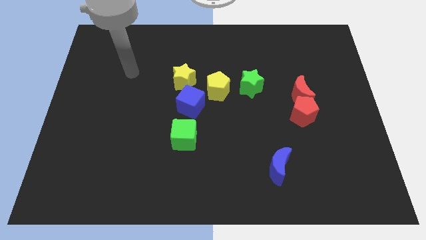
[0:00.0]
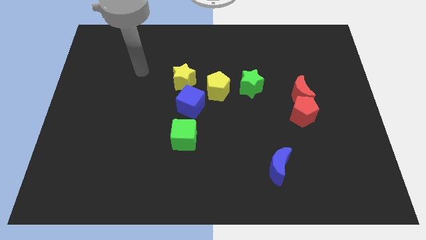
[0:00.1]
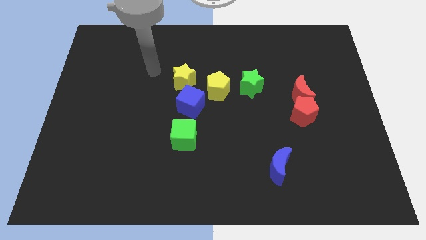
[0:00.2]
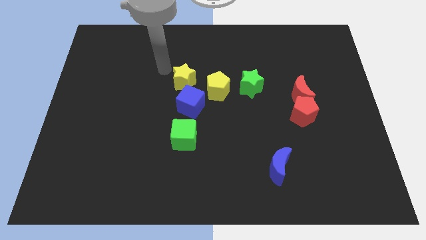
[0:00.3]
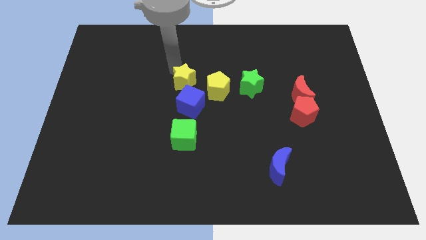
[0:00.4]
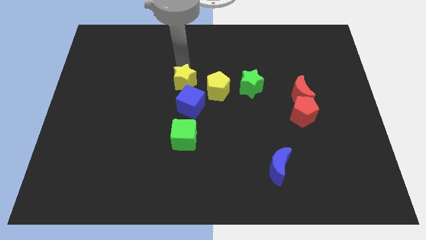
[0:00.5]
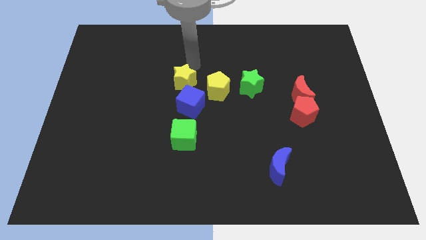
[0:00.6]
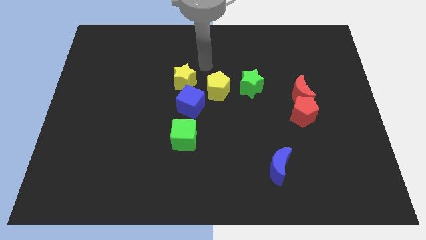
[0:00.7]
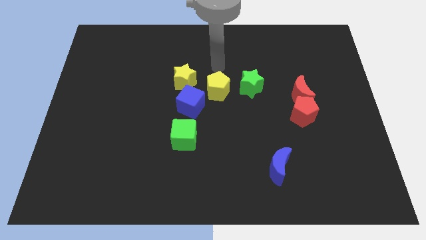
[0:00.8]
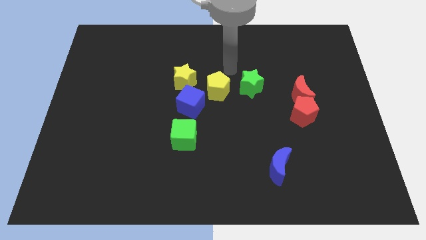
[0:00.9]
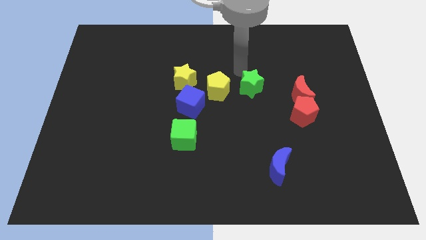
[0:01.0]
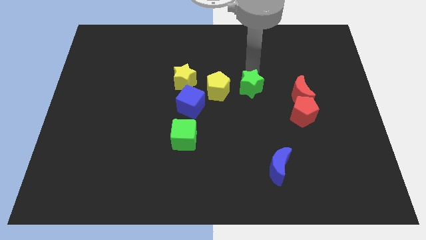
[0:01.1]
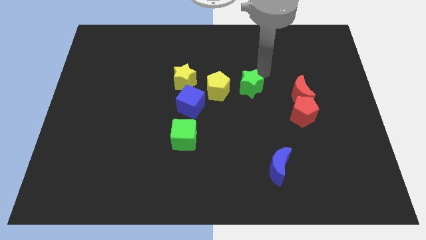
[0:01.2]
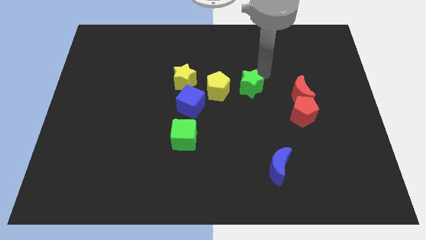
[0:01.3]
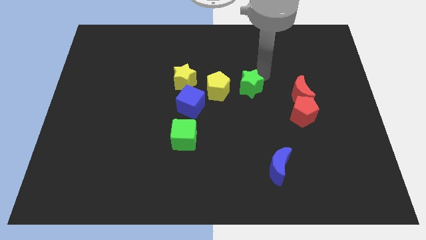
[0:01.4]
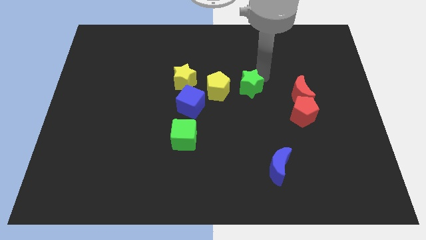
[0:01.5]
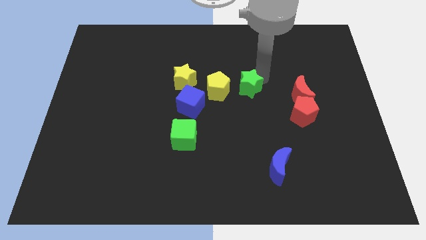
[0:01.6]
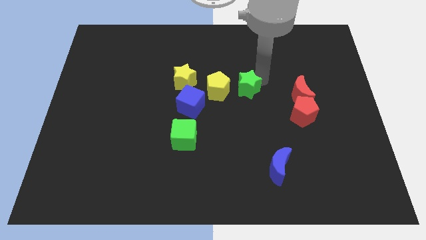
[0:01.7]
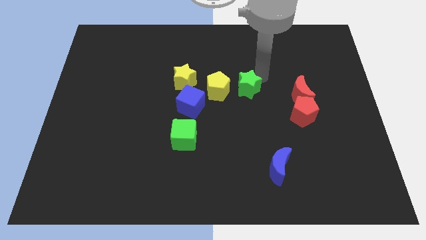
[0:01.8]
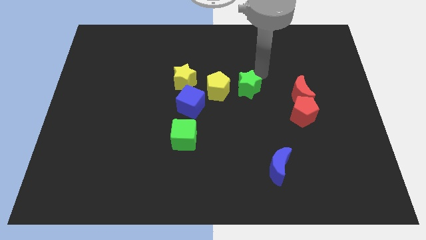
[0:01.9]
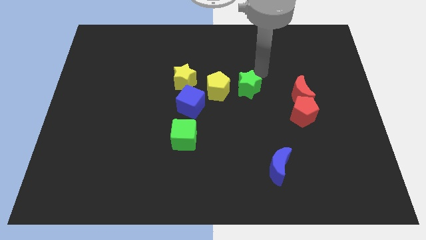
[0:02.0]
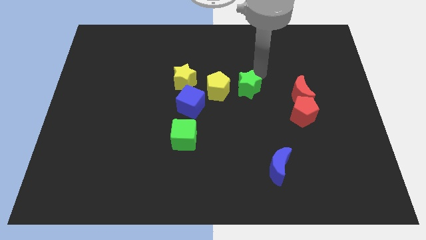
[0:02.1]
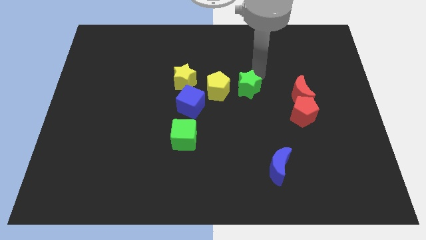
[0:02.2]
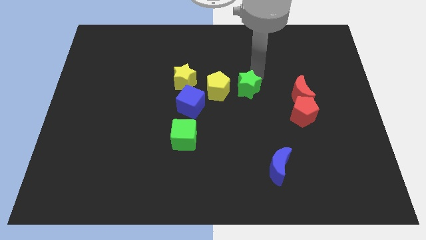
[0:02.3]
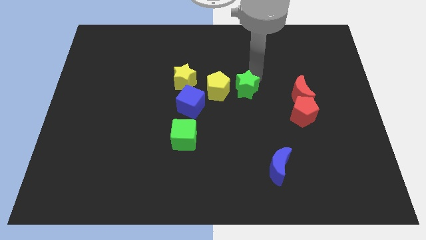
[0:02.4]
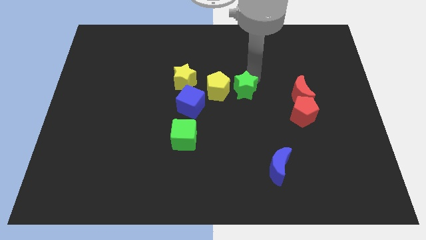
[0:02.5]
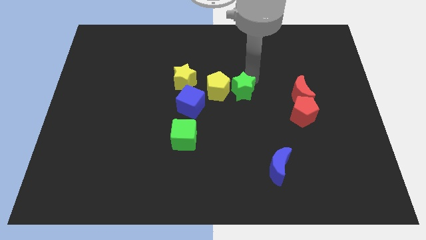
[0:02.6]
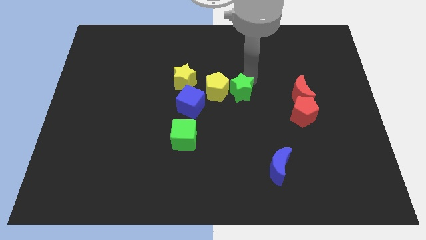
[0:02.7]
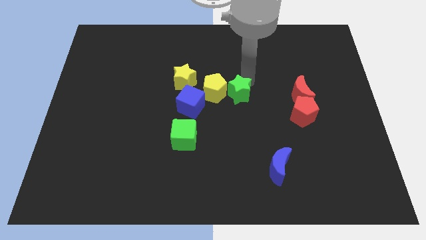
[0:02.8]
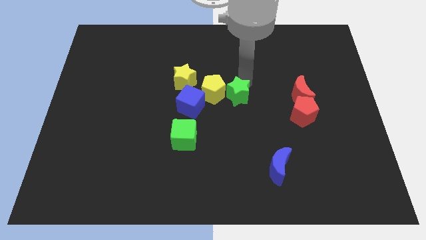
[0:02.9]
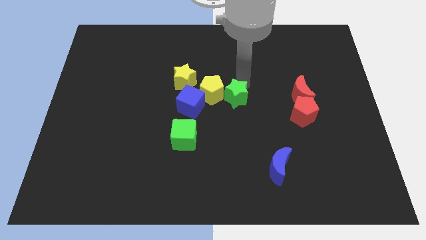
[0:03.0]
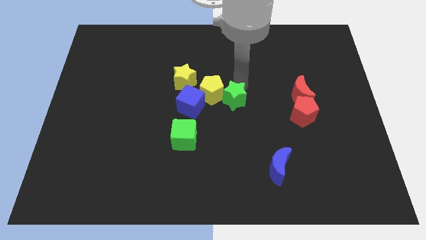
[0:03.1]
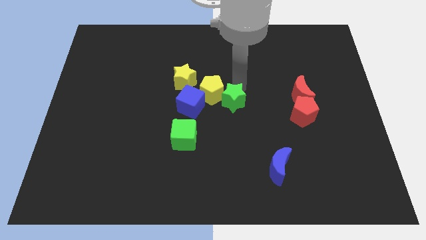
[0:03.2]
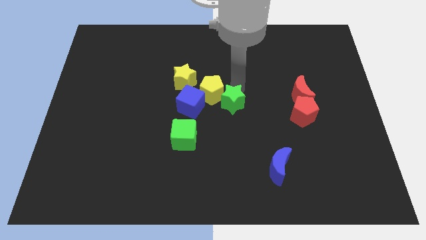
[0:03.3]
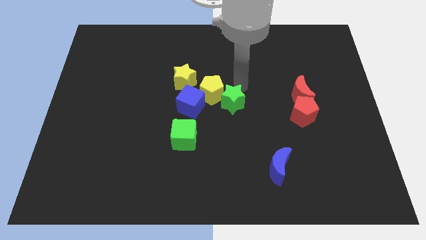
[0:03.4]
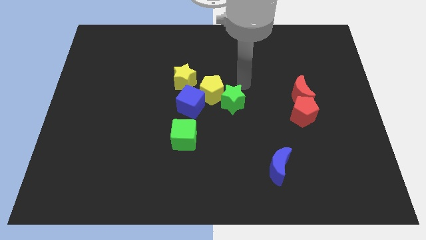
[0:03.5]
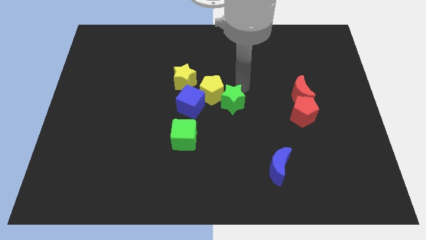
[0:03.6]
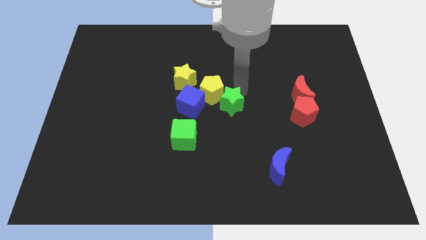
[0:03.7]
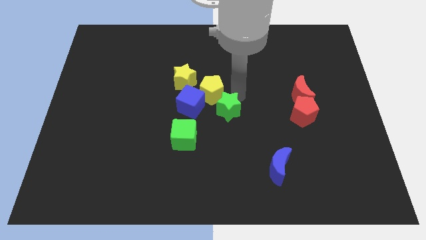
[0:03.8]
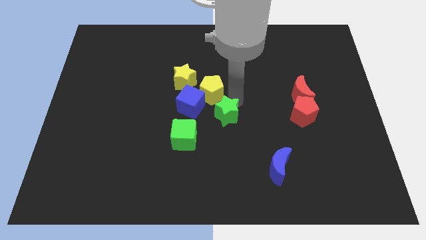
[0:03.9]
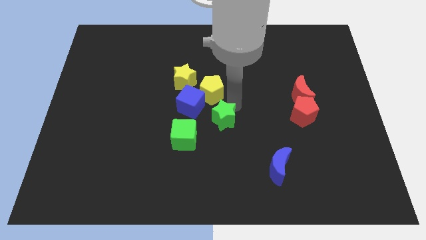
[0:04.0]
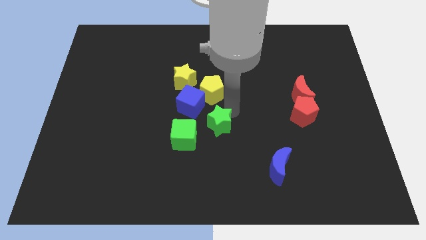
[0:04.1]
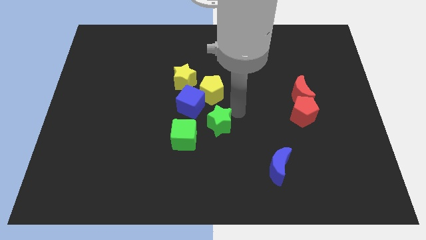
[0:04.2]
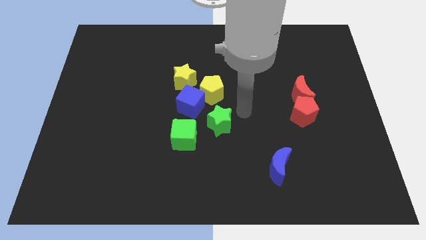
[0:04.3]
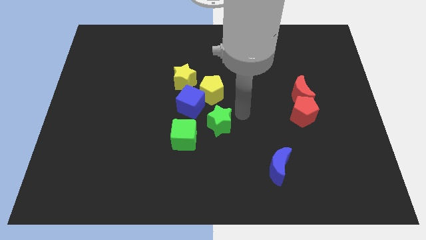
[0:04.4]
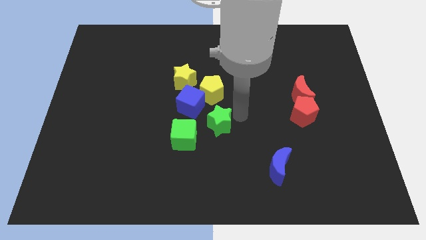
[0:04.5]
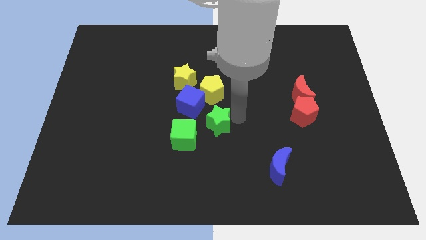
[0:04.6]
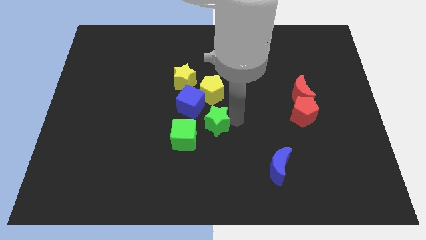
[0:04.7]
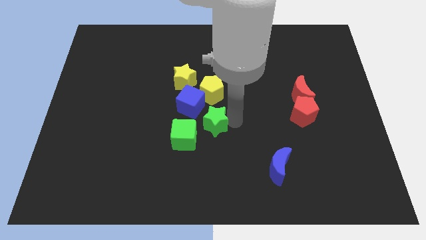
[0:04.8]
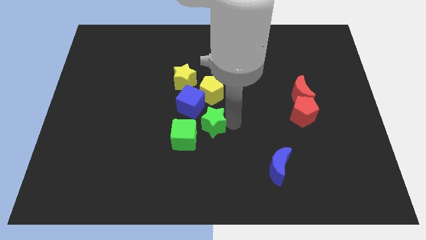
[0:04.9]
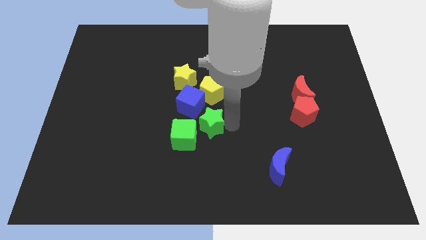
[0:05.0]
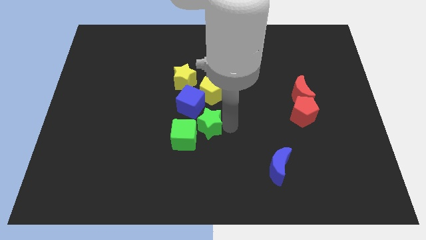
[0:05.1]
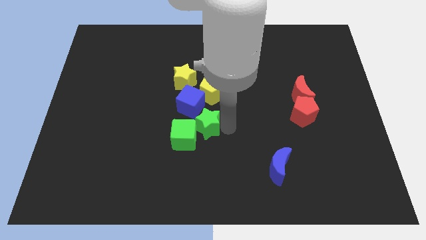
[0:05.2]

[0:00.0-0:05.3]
push the green star close to the green cube

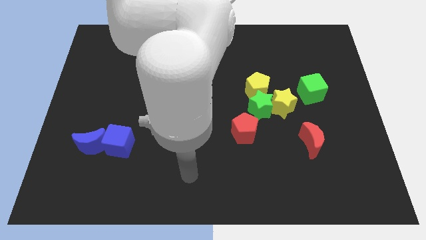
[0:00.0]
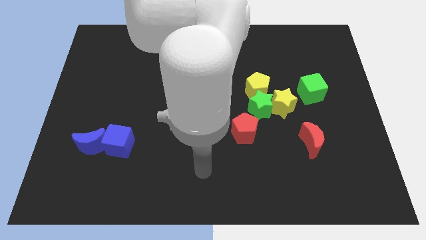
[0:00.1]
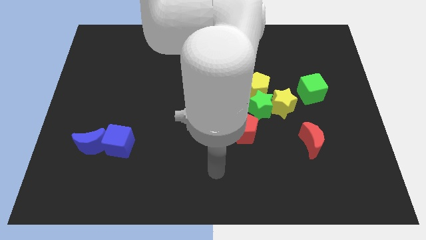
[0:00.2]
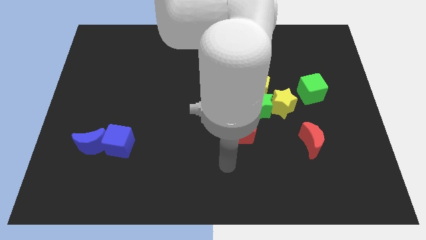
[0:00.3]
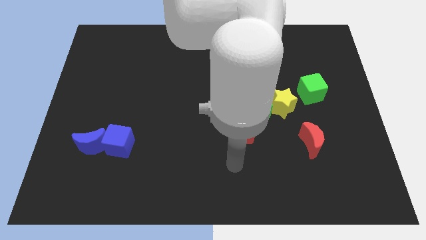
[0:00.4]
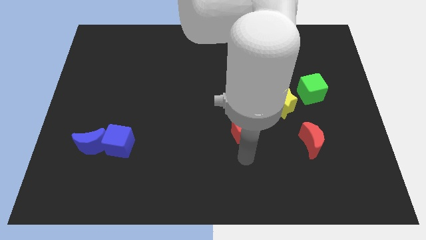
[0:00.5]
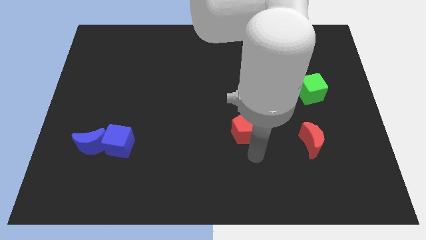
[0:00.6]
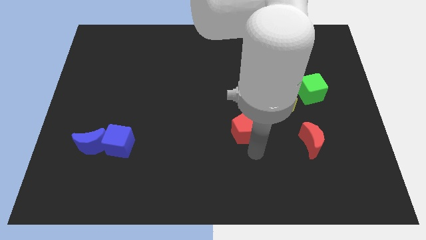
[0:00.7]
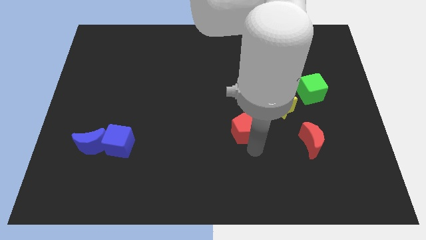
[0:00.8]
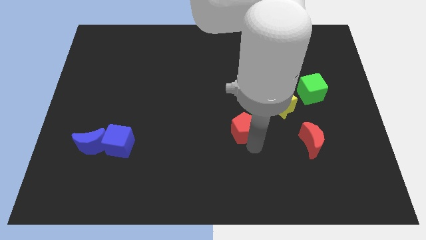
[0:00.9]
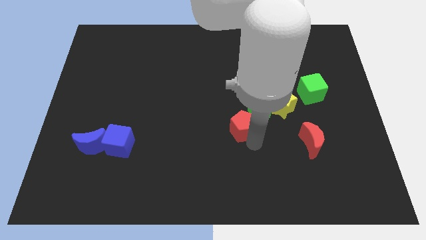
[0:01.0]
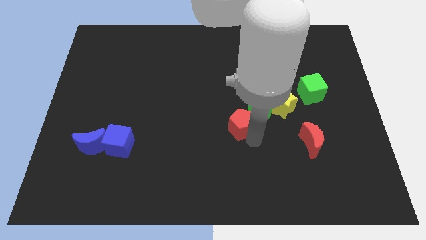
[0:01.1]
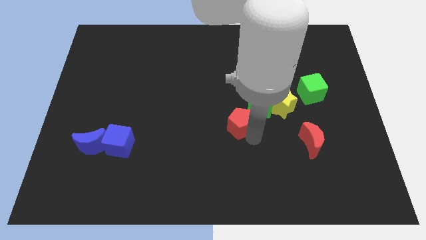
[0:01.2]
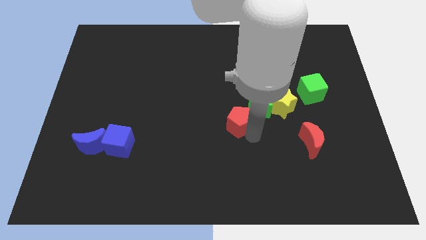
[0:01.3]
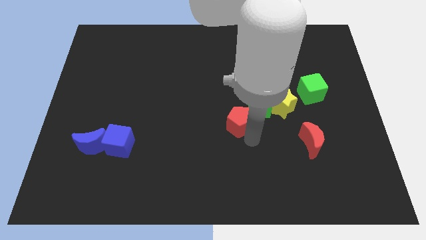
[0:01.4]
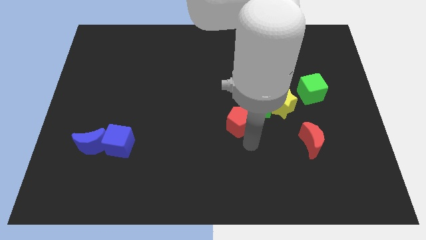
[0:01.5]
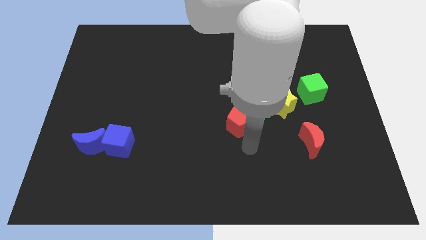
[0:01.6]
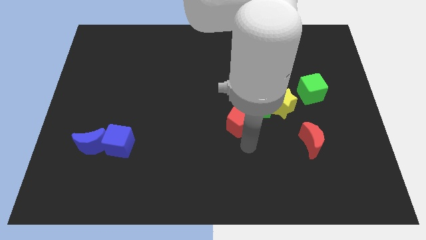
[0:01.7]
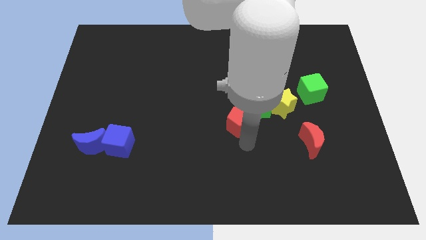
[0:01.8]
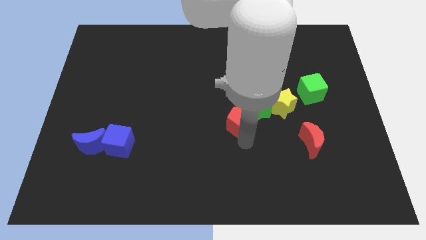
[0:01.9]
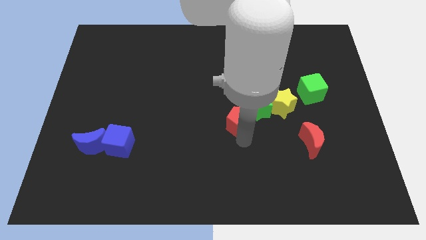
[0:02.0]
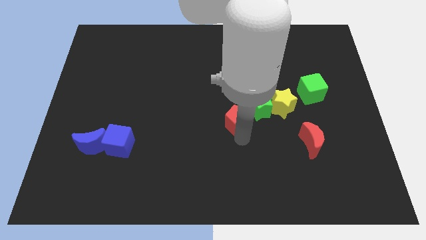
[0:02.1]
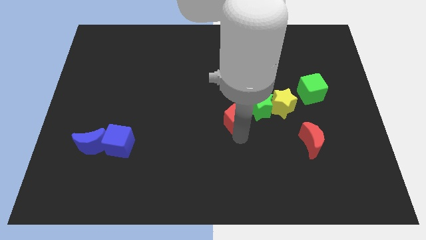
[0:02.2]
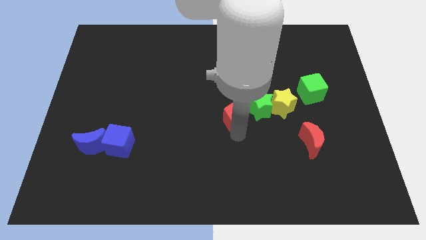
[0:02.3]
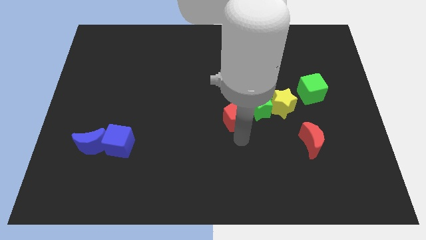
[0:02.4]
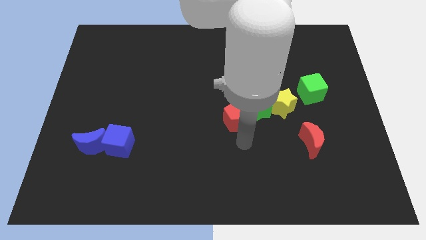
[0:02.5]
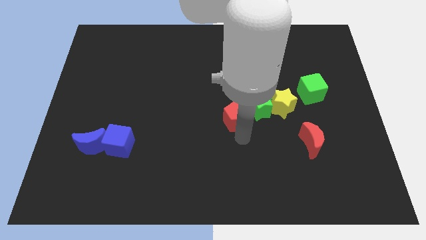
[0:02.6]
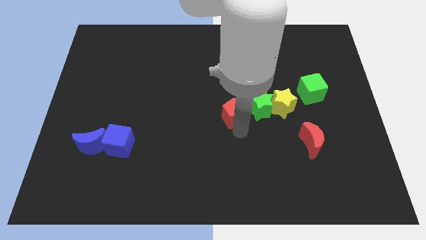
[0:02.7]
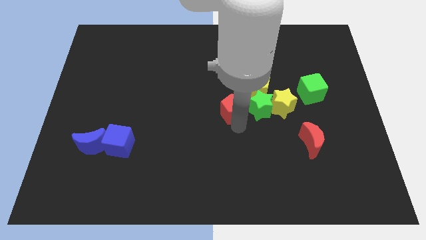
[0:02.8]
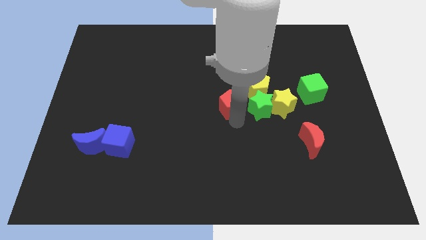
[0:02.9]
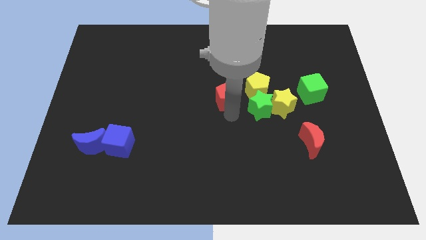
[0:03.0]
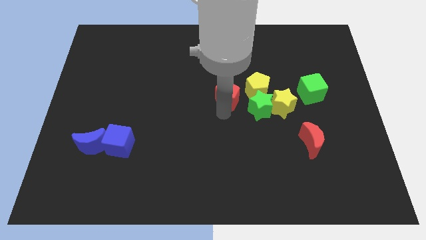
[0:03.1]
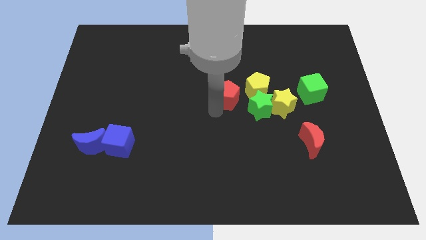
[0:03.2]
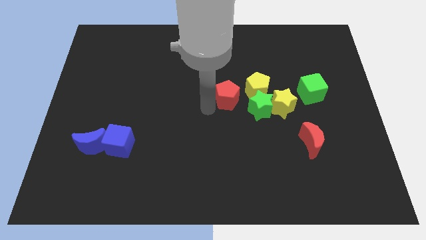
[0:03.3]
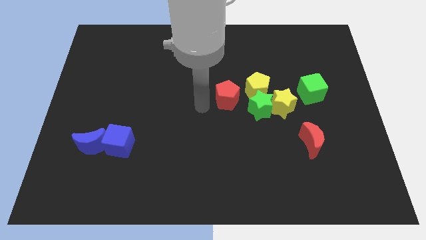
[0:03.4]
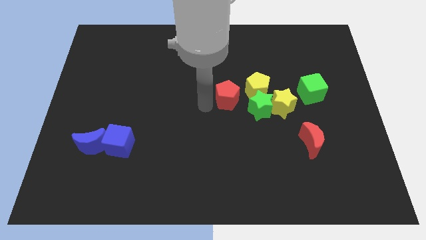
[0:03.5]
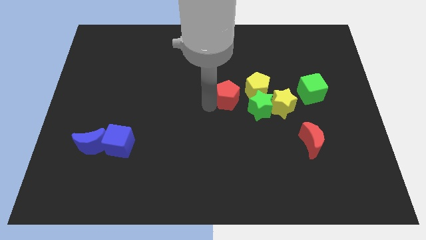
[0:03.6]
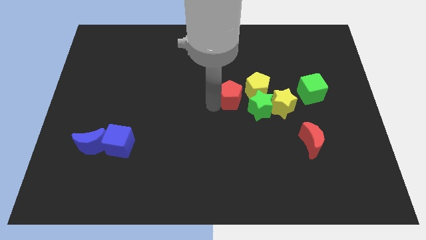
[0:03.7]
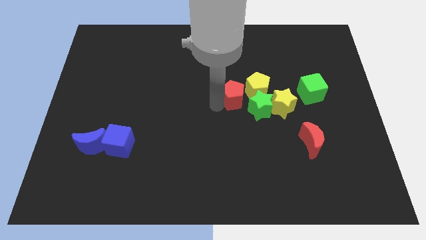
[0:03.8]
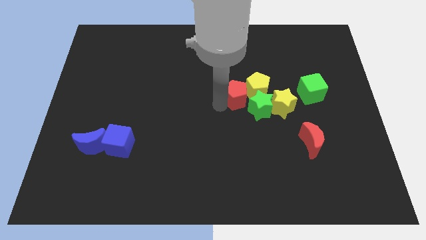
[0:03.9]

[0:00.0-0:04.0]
push the red pentagon towards the yellow pentagon
